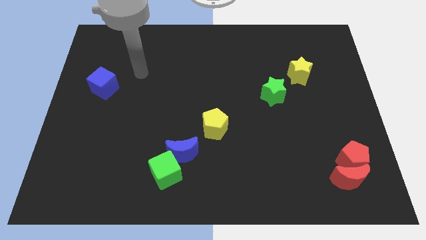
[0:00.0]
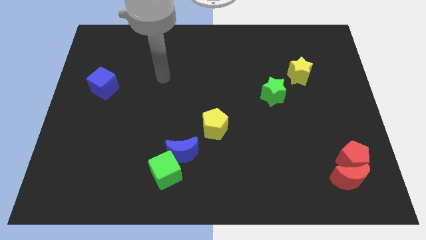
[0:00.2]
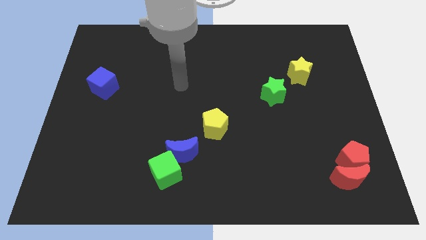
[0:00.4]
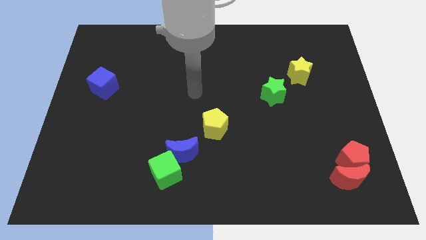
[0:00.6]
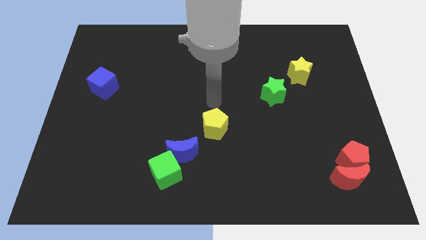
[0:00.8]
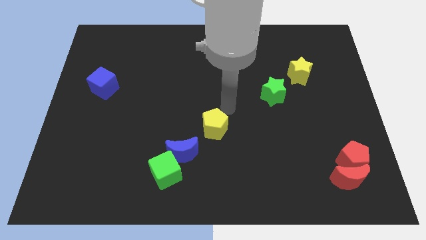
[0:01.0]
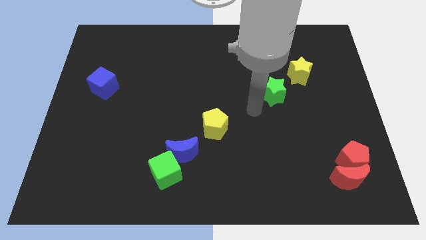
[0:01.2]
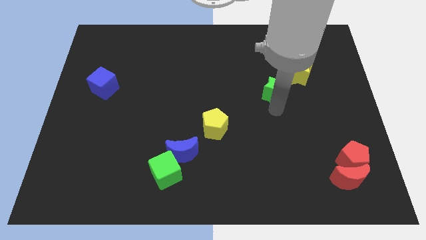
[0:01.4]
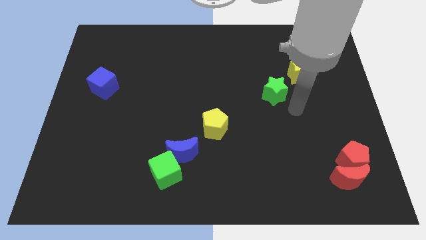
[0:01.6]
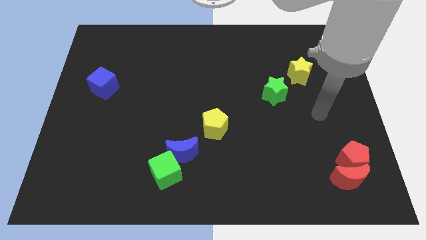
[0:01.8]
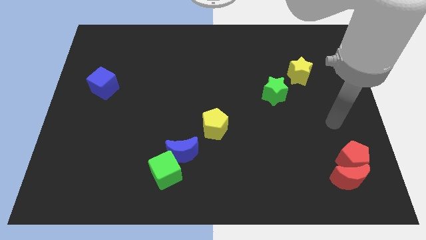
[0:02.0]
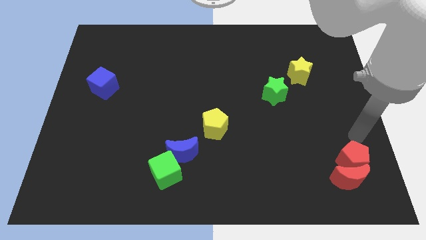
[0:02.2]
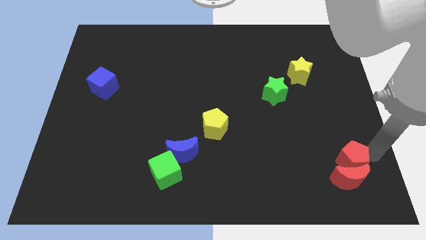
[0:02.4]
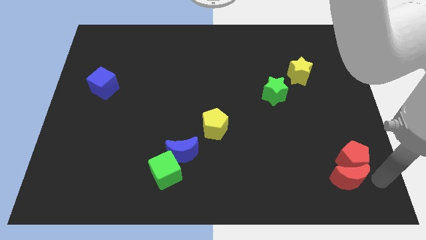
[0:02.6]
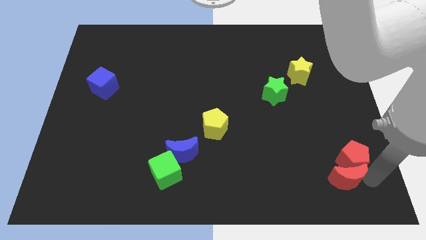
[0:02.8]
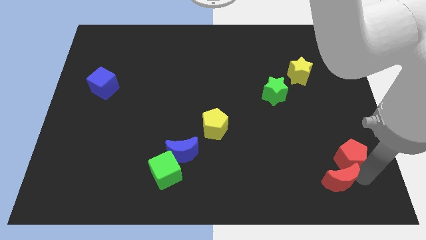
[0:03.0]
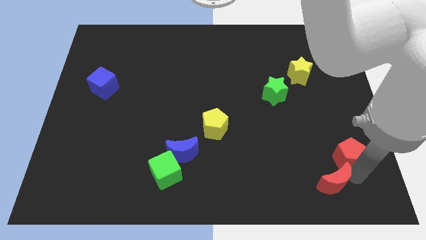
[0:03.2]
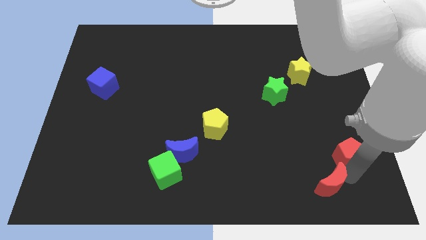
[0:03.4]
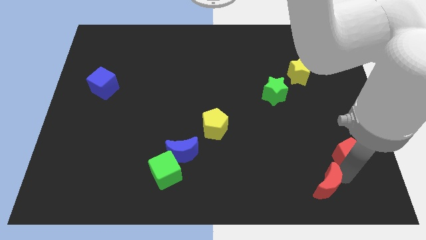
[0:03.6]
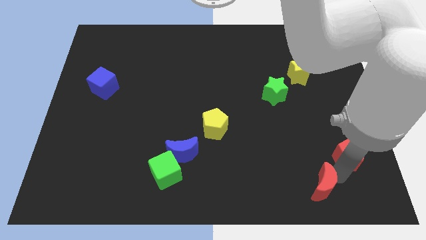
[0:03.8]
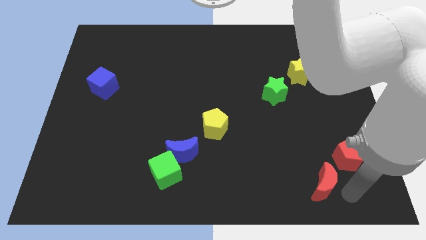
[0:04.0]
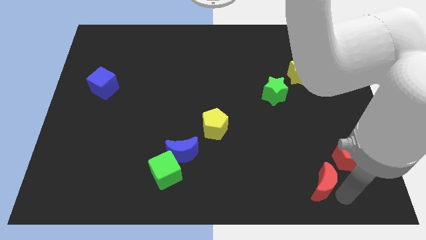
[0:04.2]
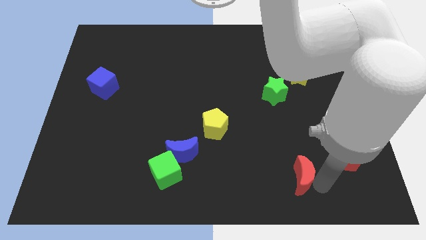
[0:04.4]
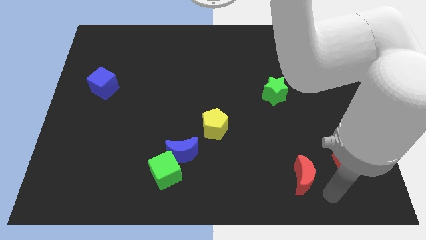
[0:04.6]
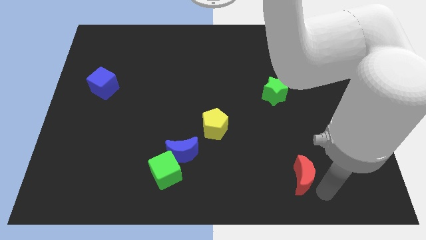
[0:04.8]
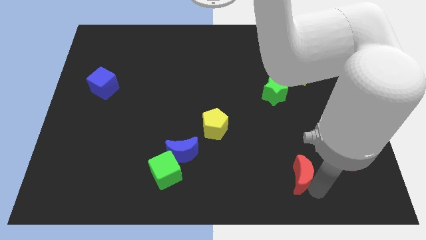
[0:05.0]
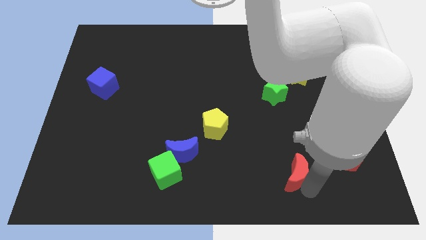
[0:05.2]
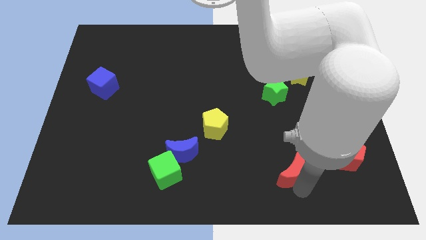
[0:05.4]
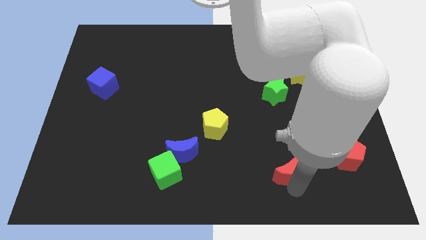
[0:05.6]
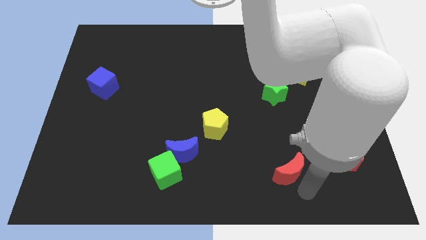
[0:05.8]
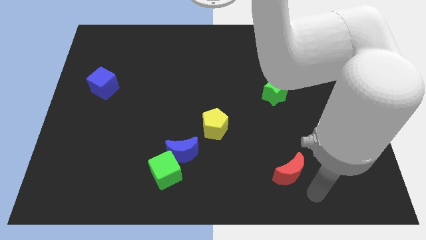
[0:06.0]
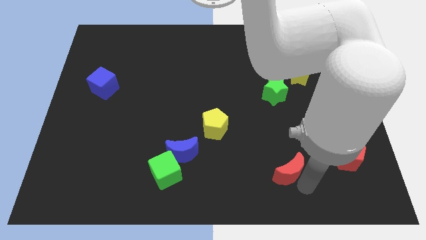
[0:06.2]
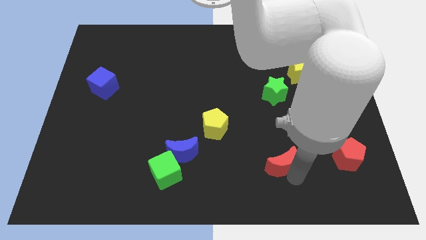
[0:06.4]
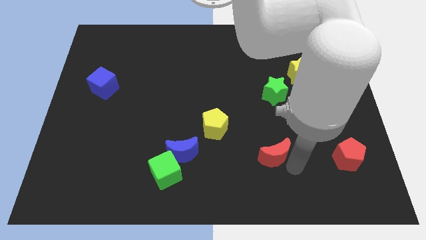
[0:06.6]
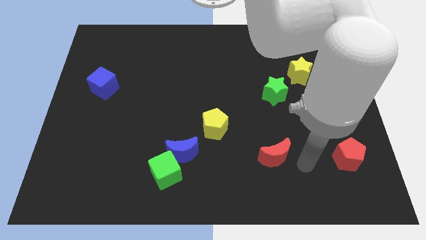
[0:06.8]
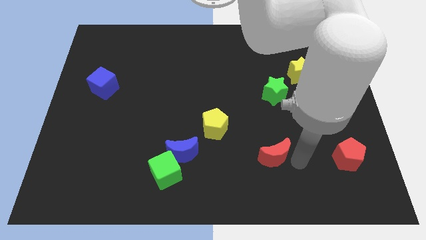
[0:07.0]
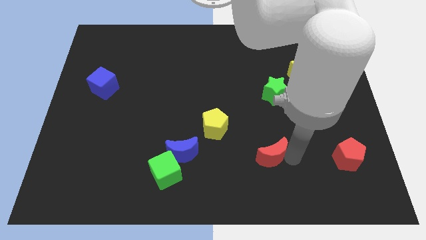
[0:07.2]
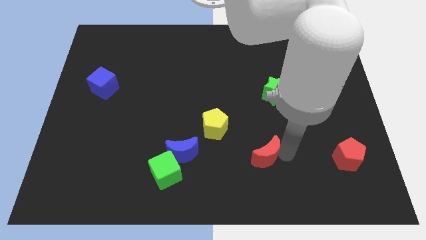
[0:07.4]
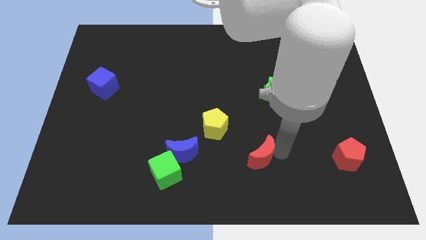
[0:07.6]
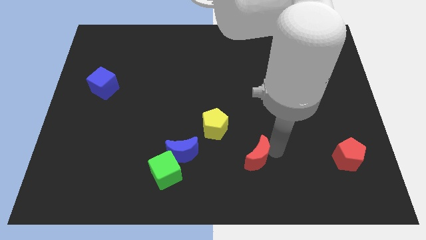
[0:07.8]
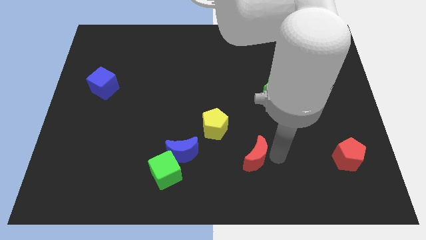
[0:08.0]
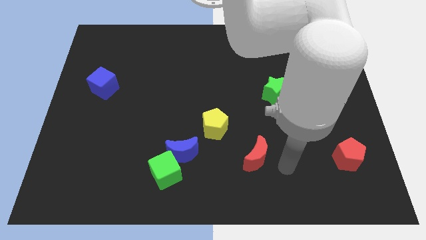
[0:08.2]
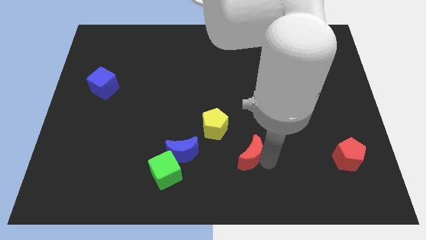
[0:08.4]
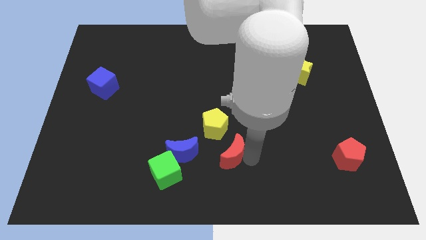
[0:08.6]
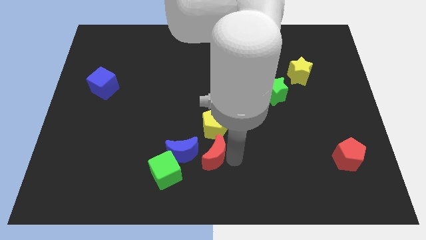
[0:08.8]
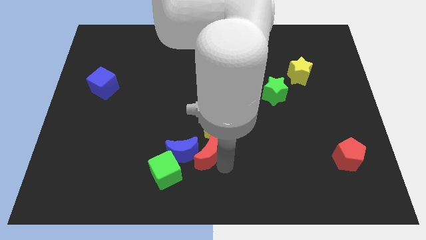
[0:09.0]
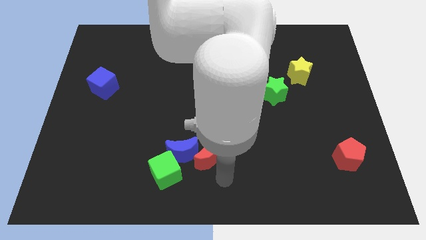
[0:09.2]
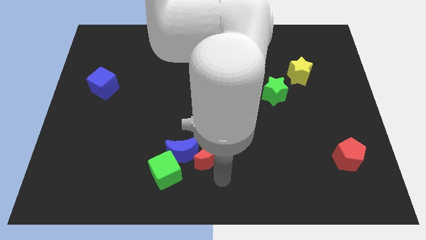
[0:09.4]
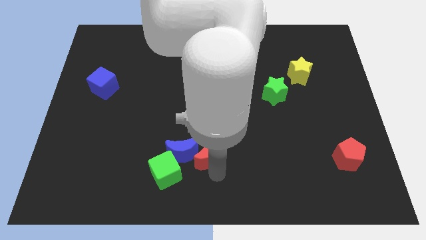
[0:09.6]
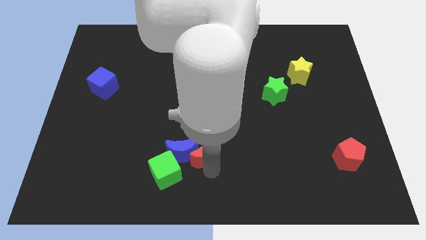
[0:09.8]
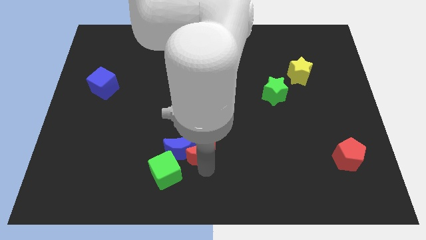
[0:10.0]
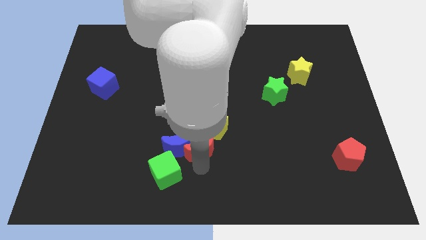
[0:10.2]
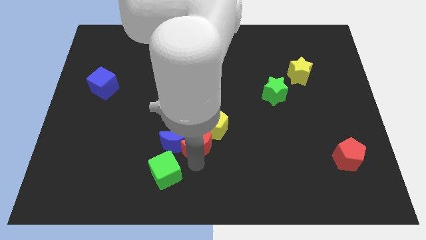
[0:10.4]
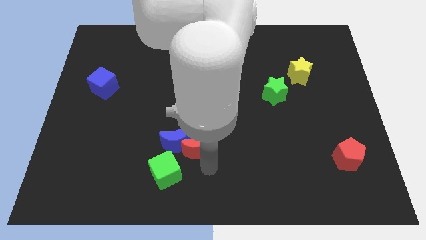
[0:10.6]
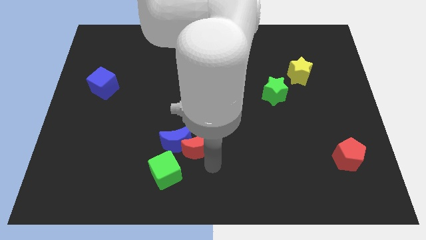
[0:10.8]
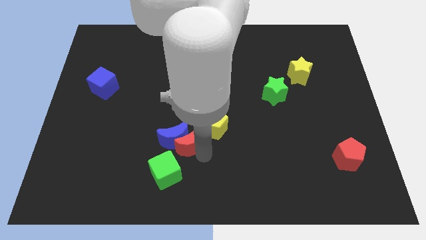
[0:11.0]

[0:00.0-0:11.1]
put the red moon to the top side of the green cube

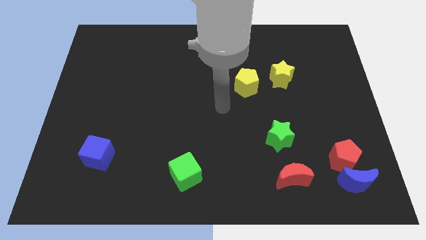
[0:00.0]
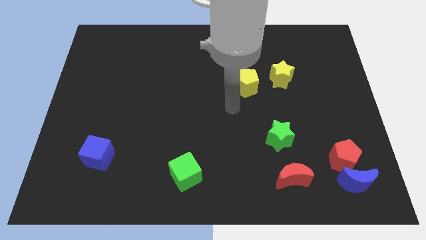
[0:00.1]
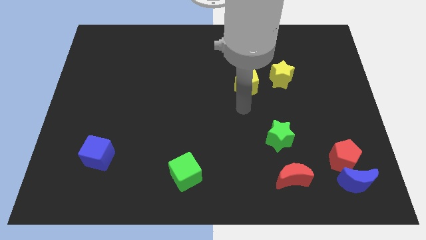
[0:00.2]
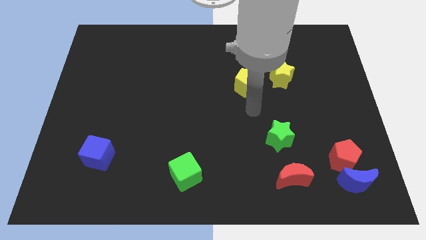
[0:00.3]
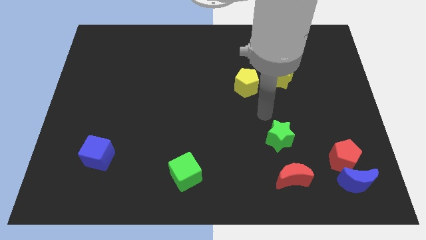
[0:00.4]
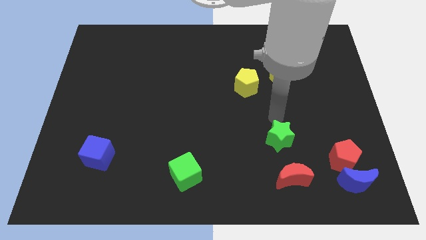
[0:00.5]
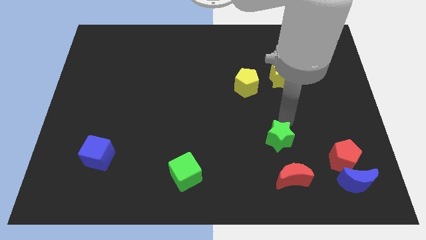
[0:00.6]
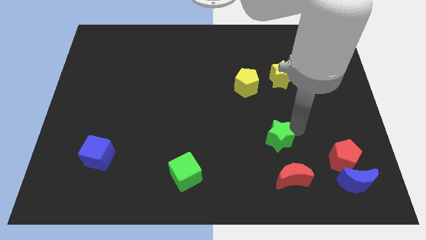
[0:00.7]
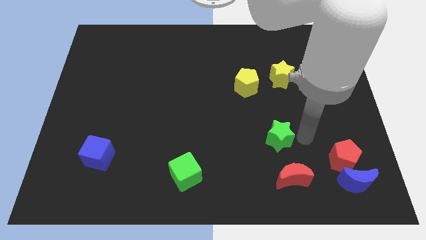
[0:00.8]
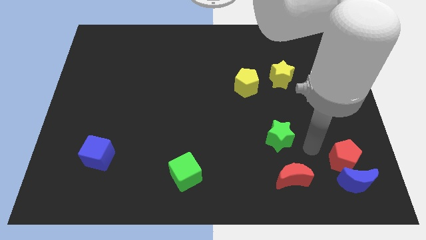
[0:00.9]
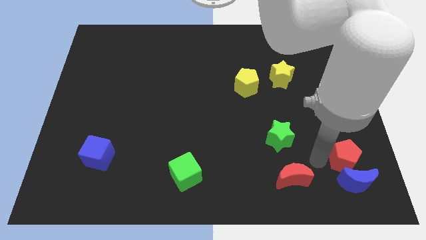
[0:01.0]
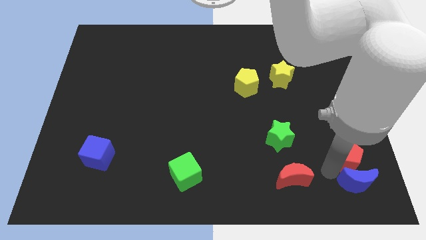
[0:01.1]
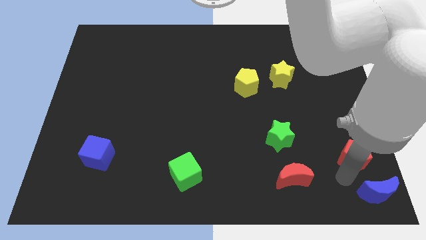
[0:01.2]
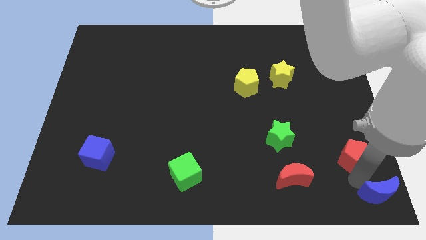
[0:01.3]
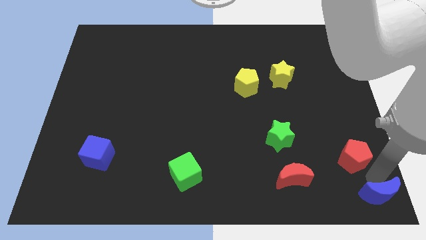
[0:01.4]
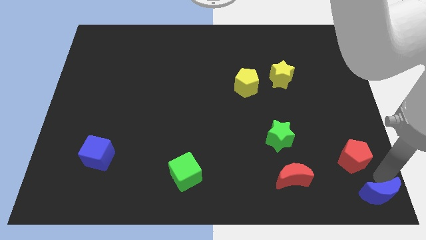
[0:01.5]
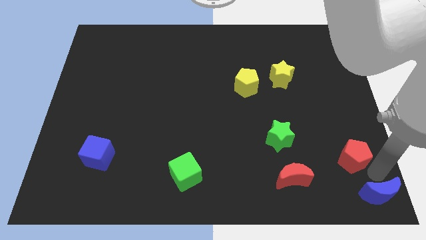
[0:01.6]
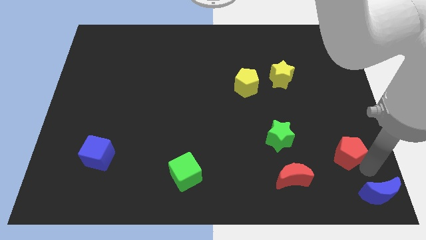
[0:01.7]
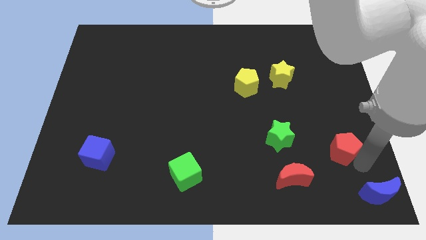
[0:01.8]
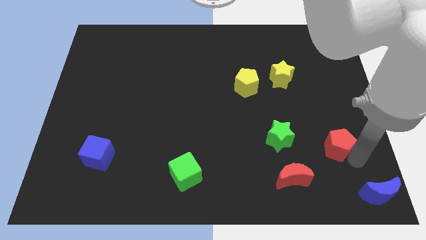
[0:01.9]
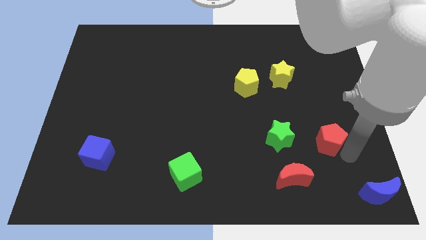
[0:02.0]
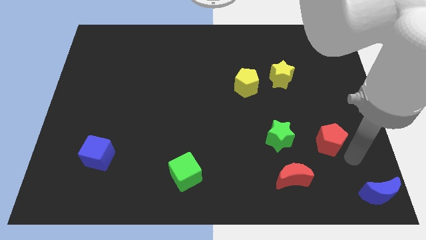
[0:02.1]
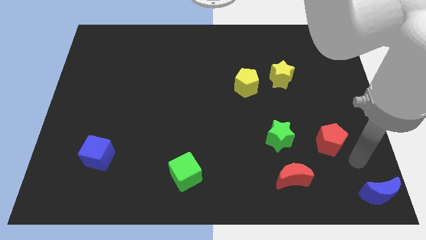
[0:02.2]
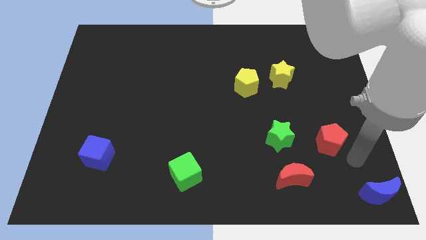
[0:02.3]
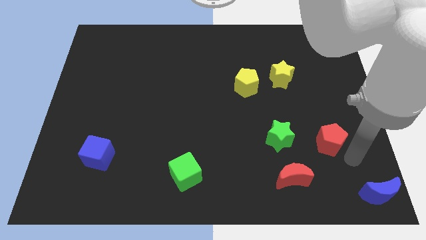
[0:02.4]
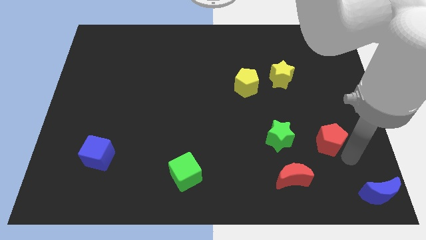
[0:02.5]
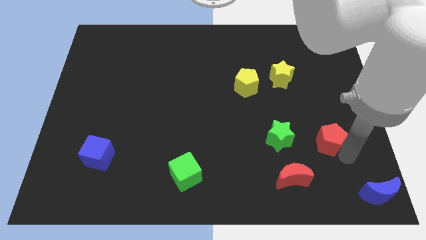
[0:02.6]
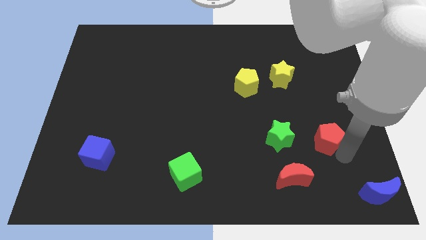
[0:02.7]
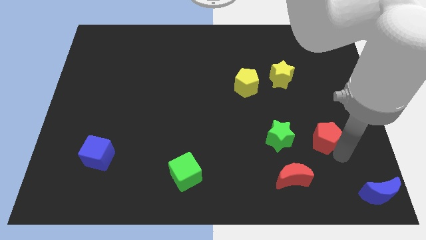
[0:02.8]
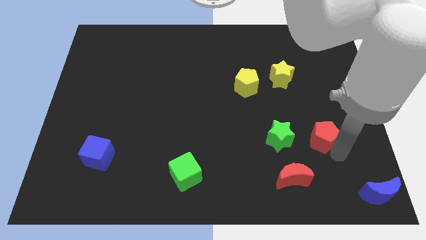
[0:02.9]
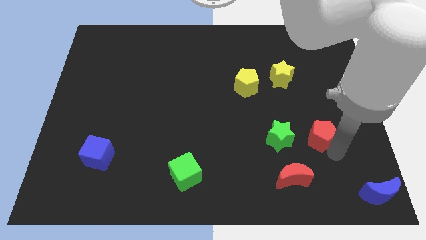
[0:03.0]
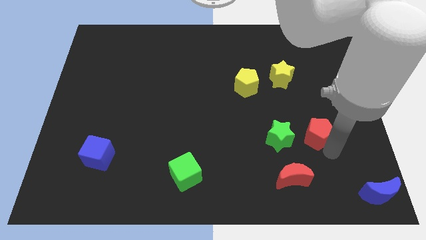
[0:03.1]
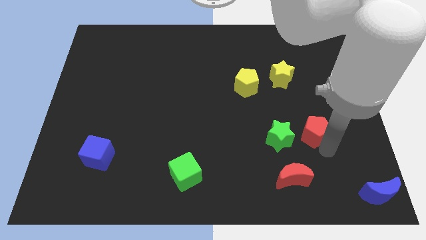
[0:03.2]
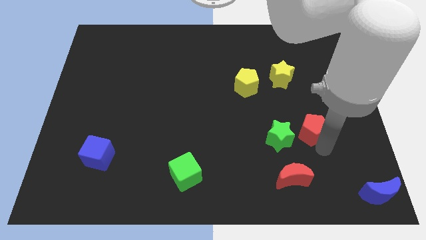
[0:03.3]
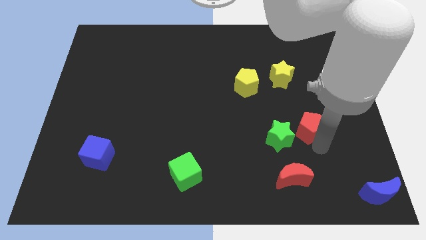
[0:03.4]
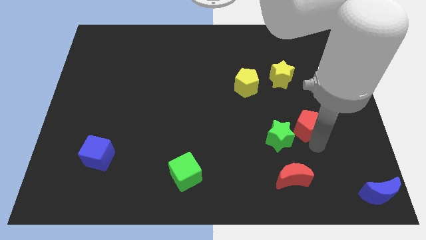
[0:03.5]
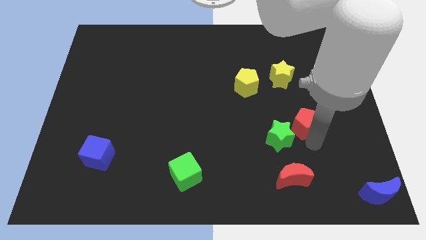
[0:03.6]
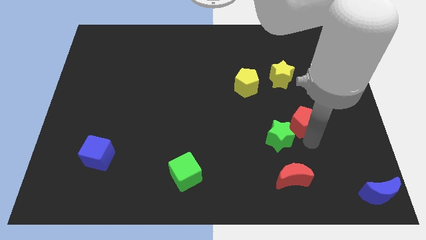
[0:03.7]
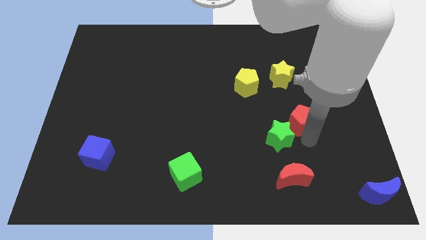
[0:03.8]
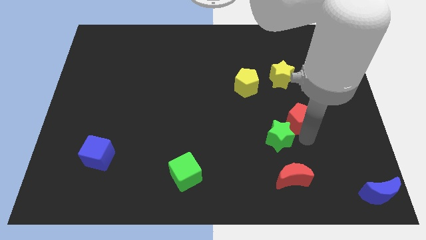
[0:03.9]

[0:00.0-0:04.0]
slide the red pentagon to the top side of the green star
